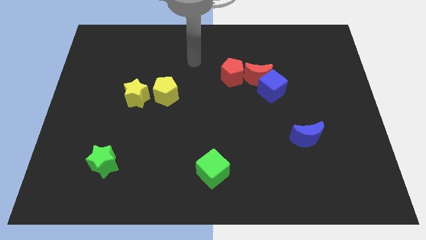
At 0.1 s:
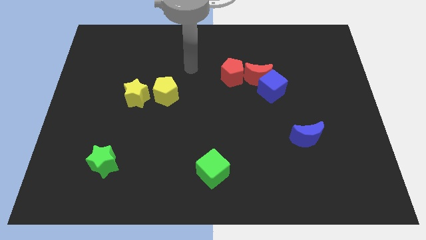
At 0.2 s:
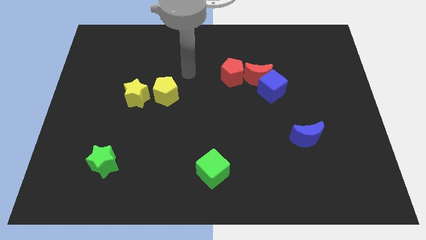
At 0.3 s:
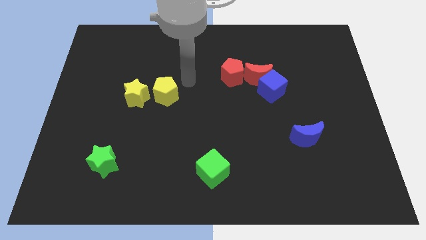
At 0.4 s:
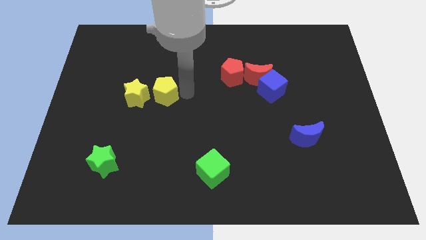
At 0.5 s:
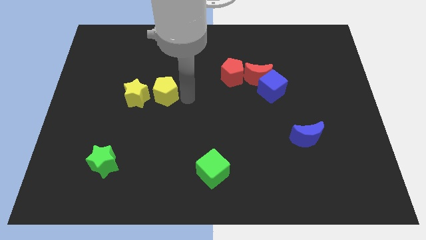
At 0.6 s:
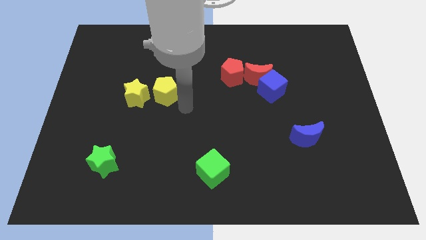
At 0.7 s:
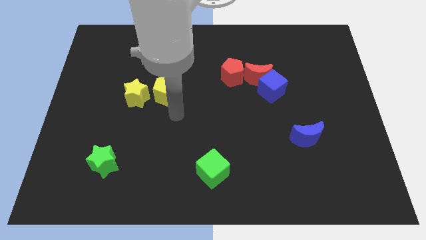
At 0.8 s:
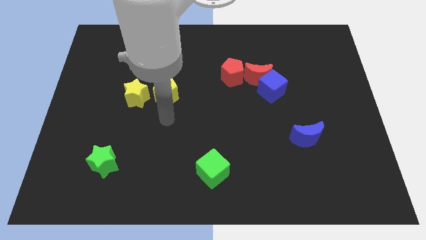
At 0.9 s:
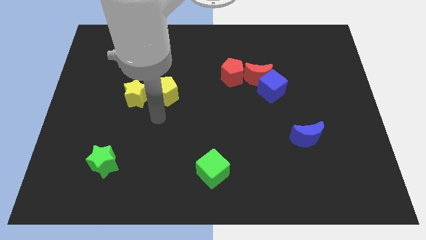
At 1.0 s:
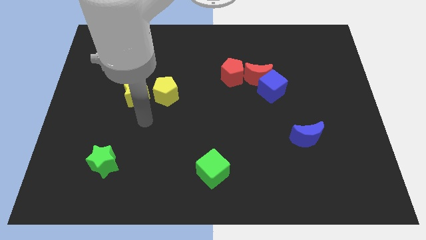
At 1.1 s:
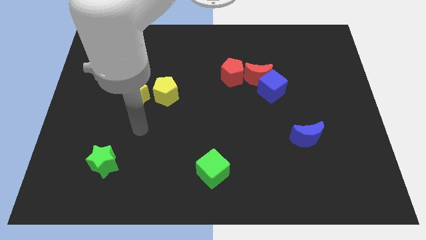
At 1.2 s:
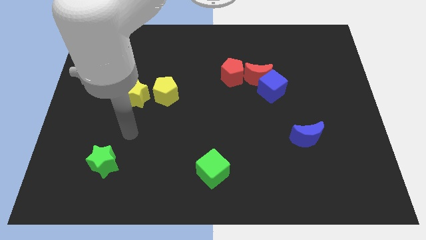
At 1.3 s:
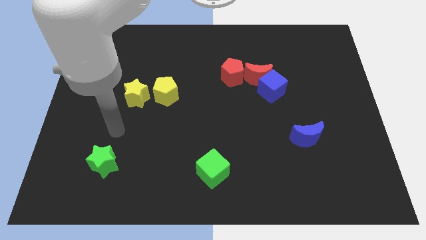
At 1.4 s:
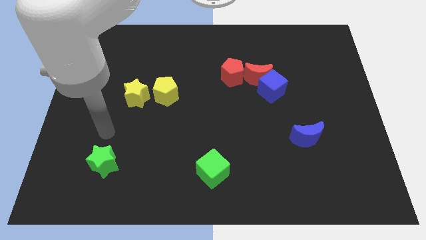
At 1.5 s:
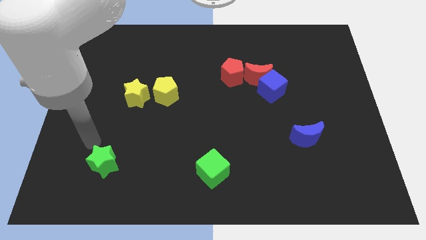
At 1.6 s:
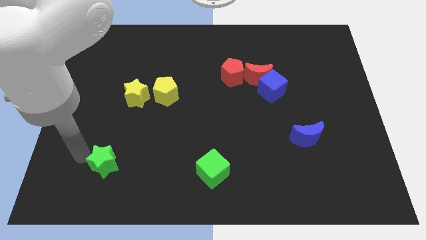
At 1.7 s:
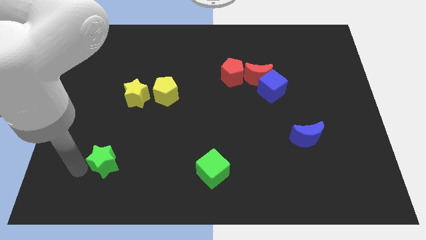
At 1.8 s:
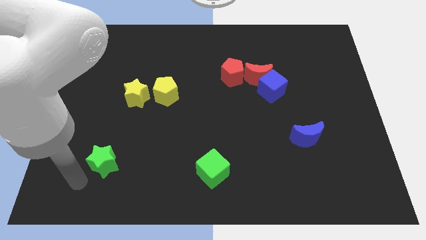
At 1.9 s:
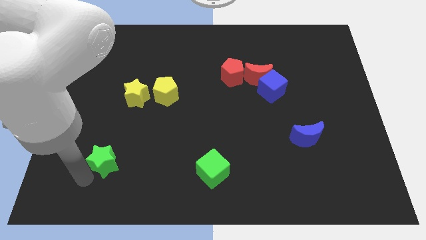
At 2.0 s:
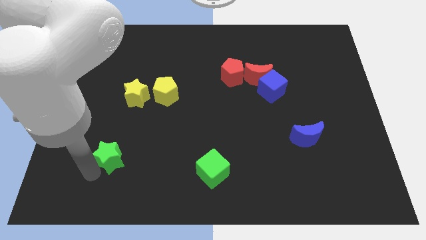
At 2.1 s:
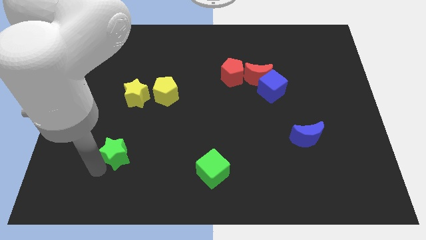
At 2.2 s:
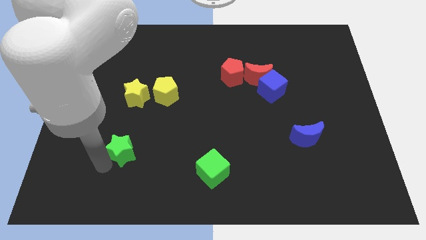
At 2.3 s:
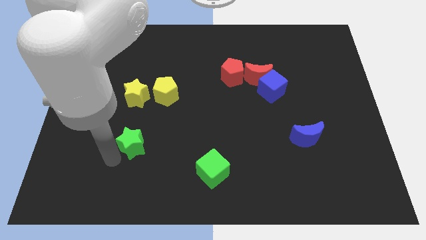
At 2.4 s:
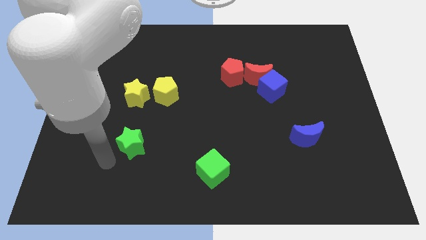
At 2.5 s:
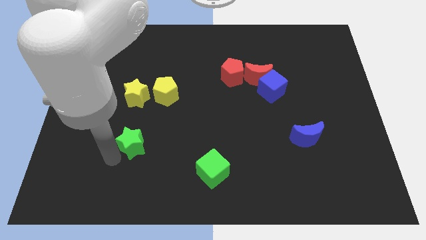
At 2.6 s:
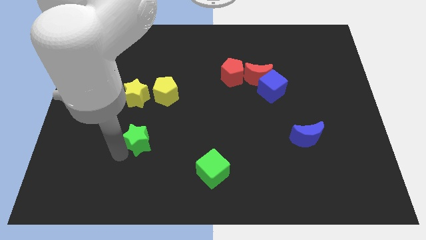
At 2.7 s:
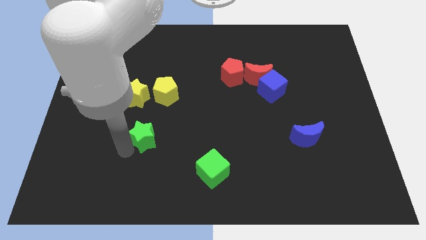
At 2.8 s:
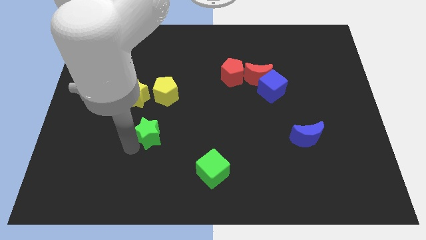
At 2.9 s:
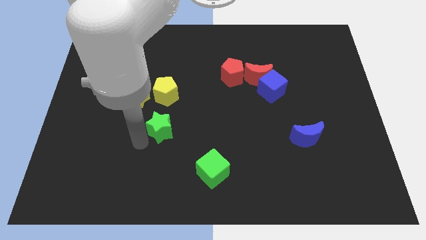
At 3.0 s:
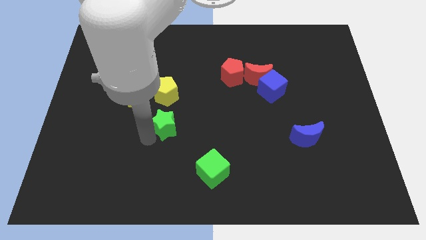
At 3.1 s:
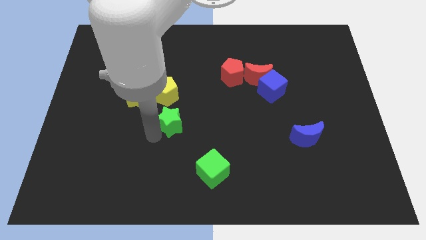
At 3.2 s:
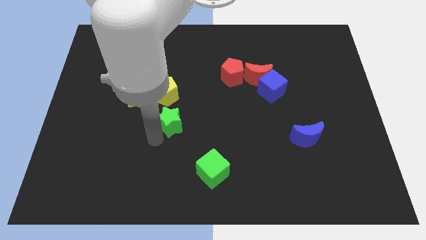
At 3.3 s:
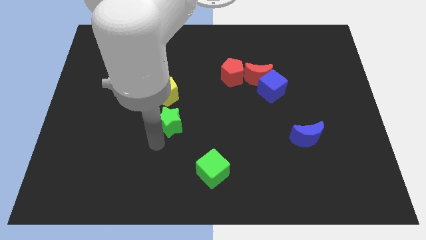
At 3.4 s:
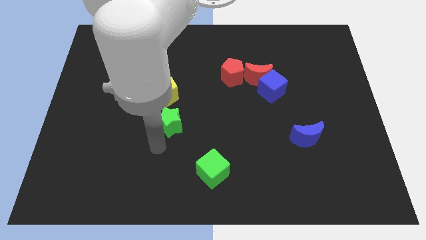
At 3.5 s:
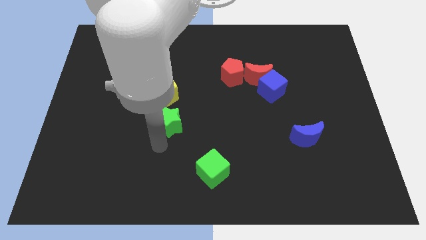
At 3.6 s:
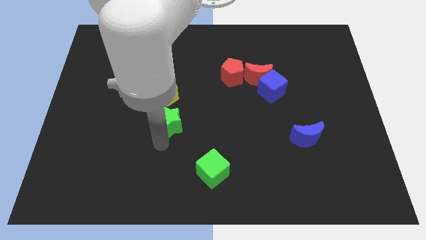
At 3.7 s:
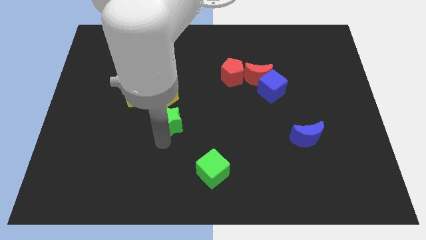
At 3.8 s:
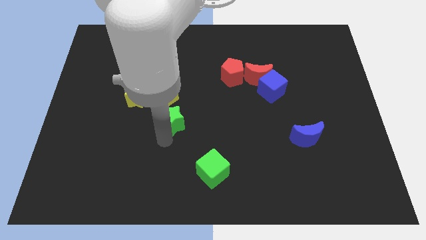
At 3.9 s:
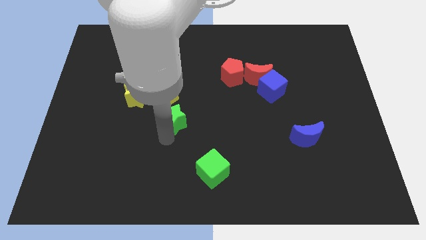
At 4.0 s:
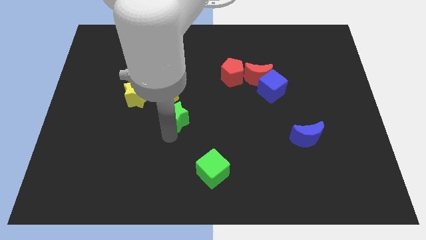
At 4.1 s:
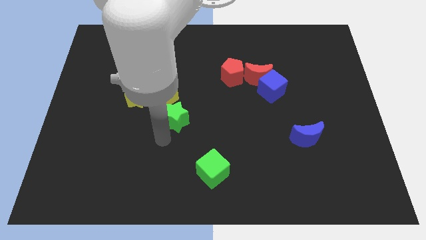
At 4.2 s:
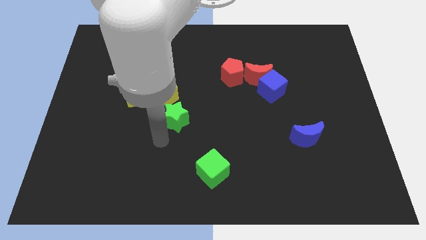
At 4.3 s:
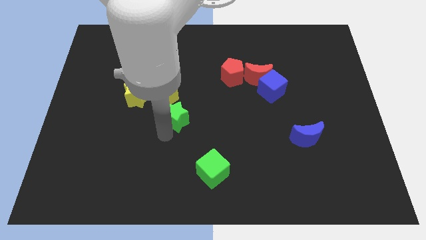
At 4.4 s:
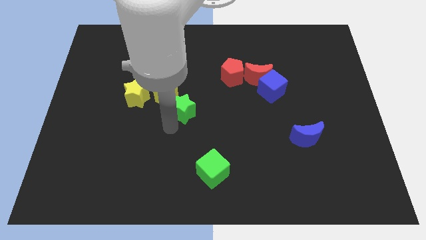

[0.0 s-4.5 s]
push the green star up and to the right

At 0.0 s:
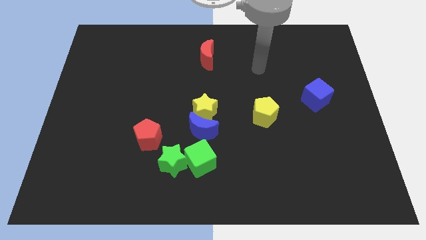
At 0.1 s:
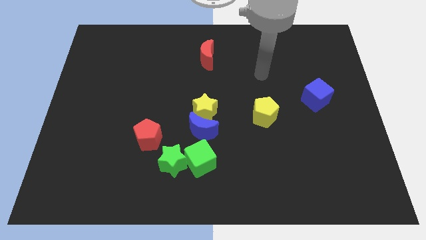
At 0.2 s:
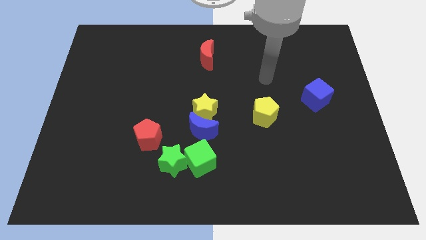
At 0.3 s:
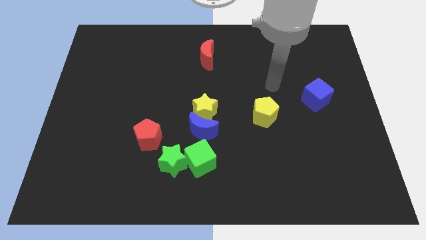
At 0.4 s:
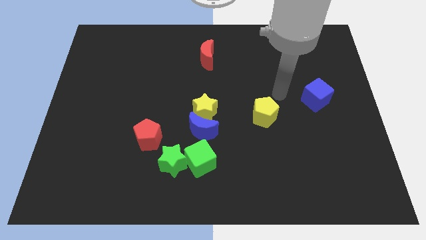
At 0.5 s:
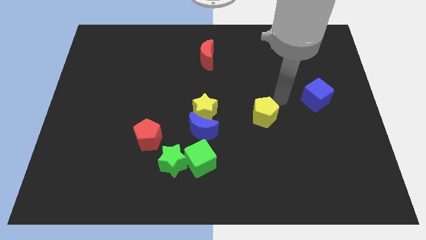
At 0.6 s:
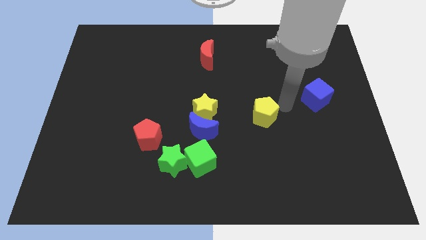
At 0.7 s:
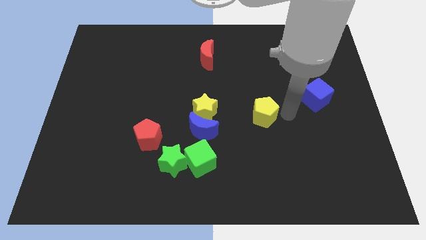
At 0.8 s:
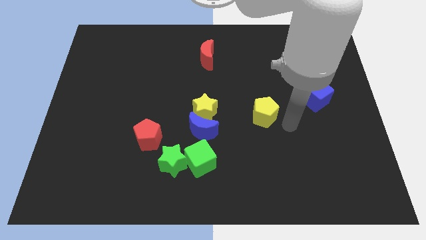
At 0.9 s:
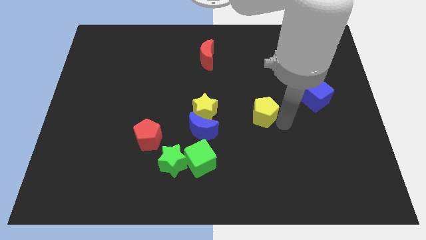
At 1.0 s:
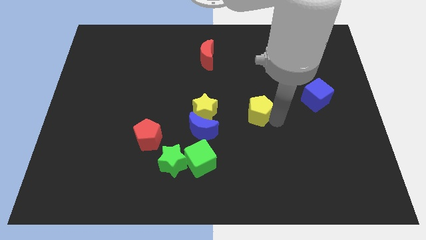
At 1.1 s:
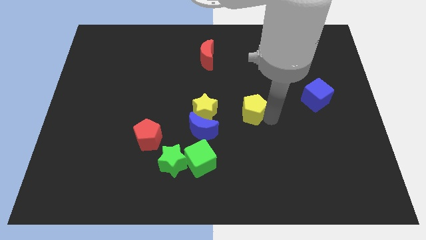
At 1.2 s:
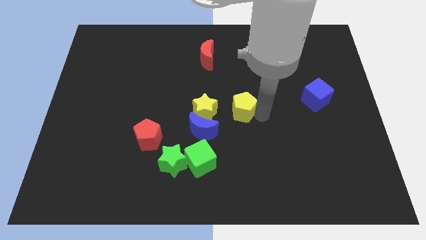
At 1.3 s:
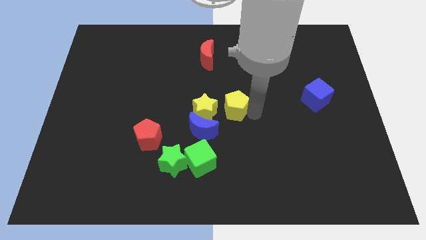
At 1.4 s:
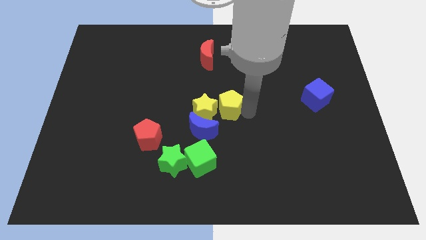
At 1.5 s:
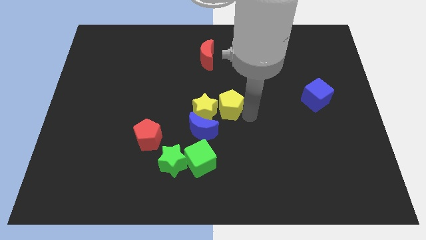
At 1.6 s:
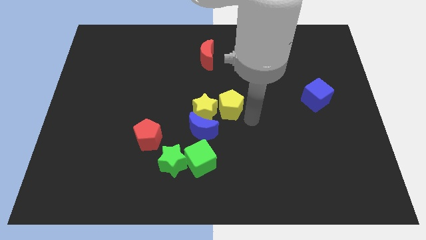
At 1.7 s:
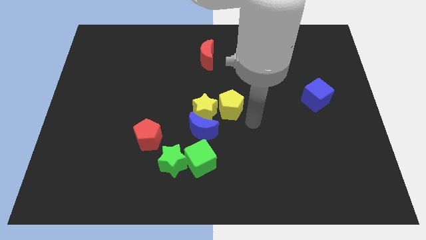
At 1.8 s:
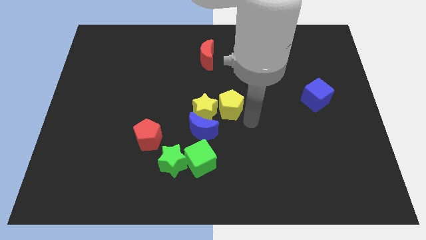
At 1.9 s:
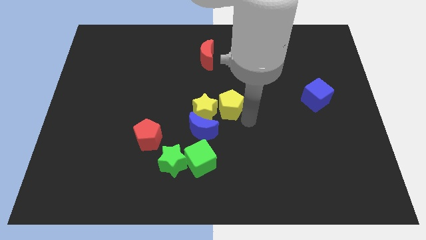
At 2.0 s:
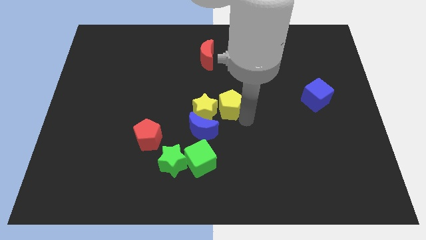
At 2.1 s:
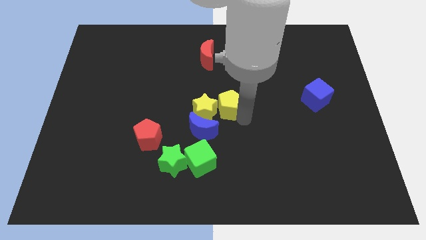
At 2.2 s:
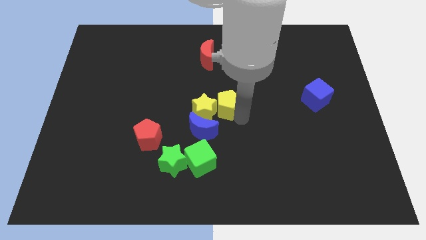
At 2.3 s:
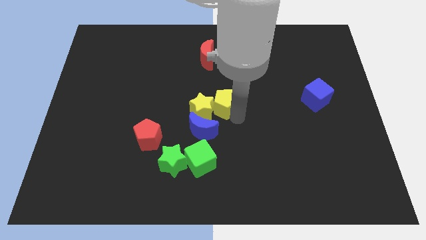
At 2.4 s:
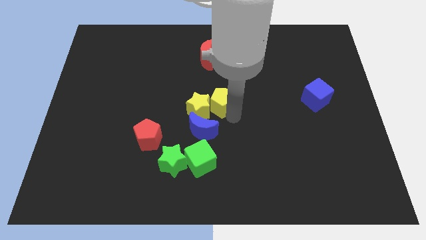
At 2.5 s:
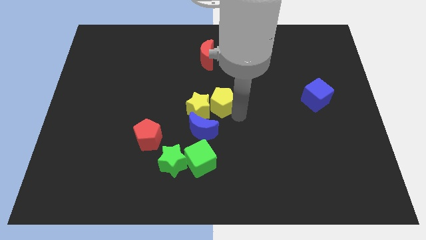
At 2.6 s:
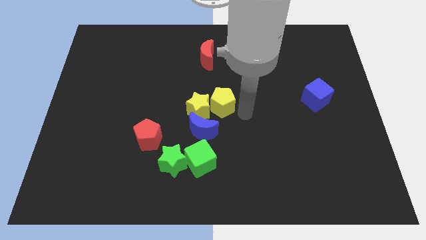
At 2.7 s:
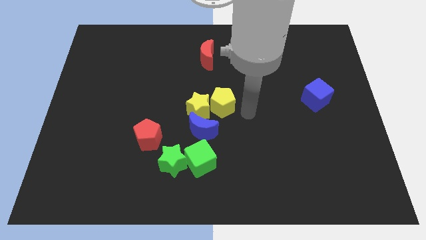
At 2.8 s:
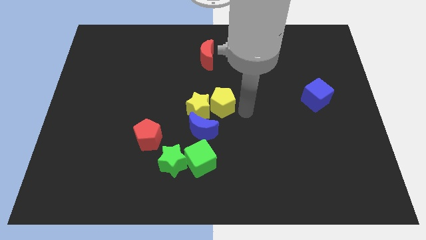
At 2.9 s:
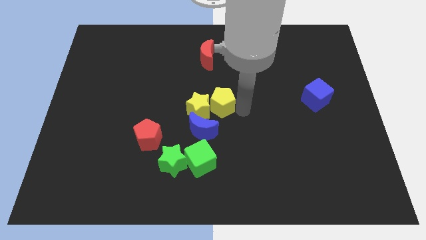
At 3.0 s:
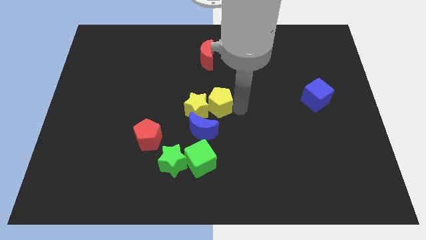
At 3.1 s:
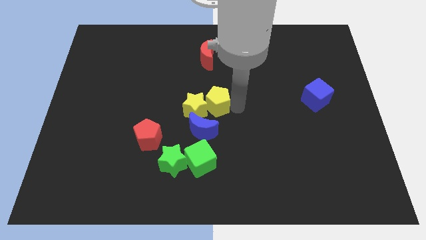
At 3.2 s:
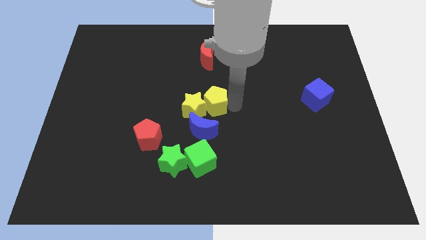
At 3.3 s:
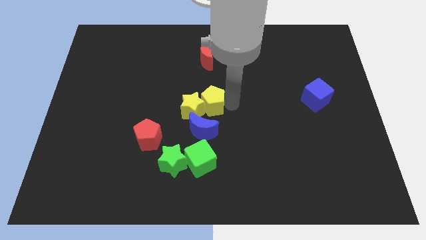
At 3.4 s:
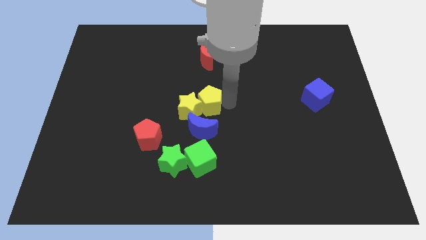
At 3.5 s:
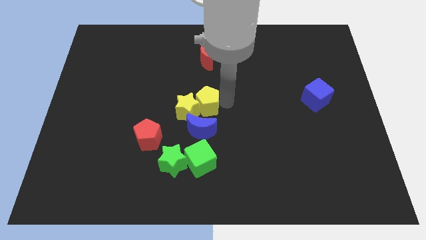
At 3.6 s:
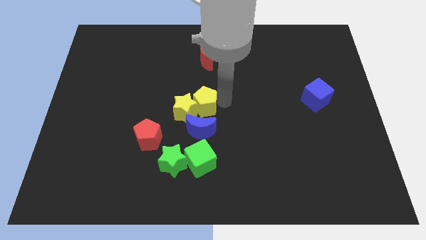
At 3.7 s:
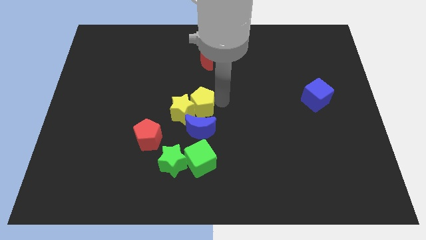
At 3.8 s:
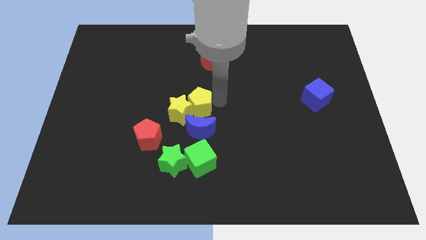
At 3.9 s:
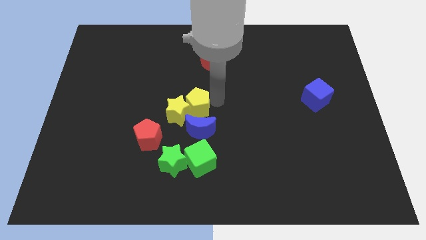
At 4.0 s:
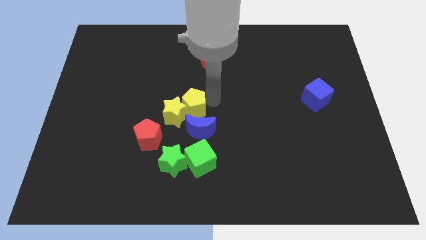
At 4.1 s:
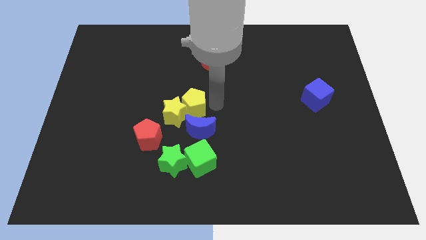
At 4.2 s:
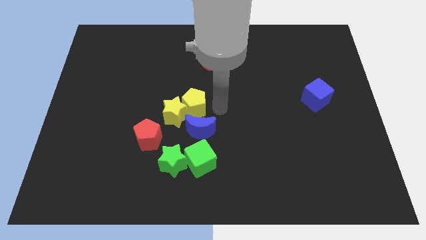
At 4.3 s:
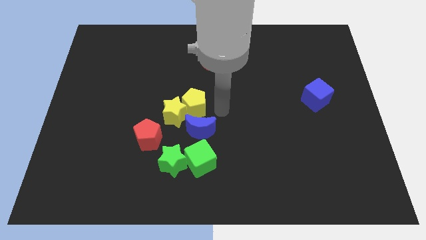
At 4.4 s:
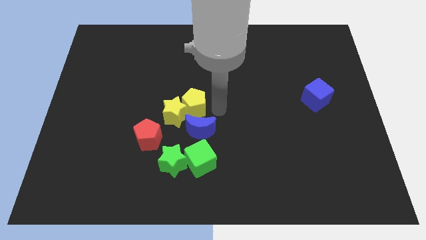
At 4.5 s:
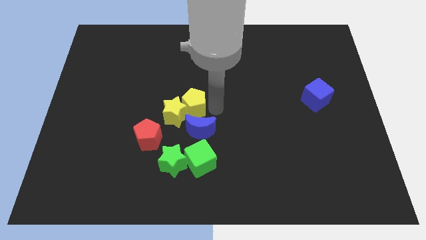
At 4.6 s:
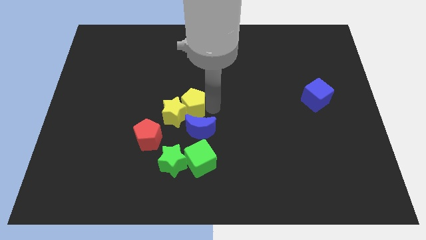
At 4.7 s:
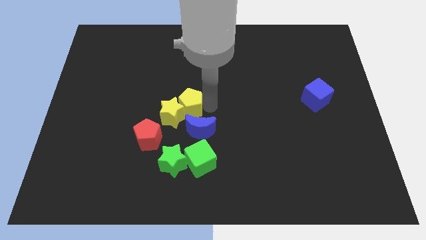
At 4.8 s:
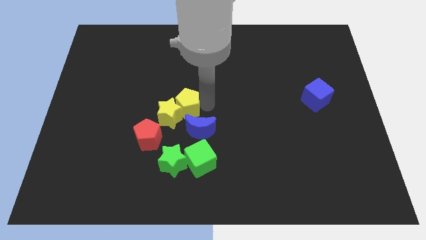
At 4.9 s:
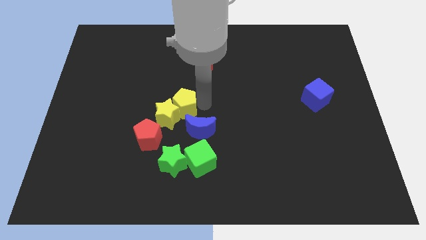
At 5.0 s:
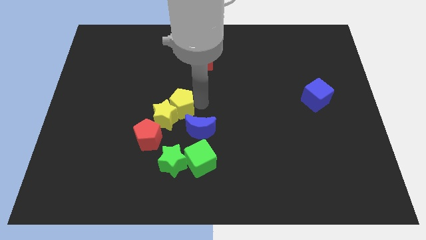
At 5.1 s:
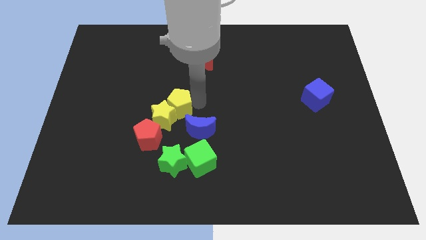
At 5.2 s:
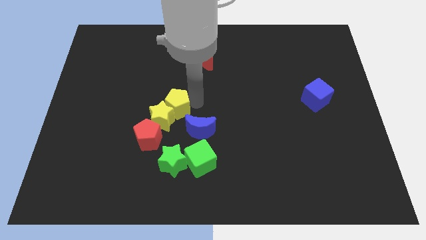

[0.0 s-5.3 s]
slide the yellow pentagon to the left
